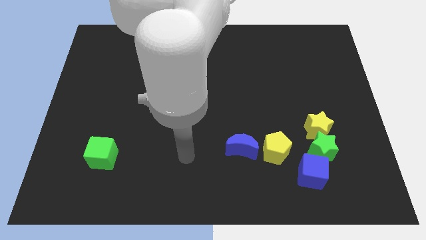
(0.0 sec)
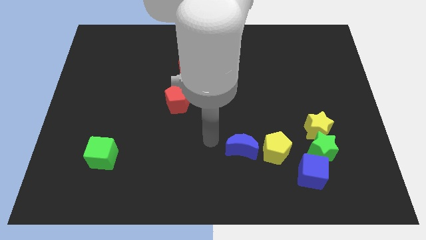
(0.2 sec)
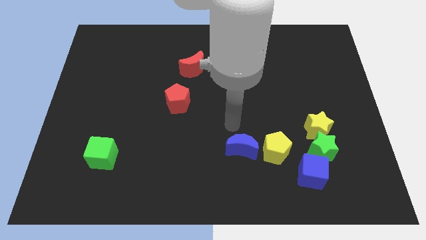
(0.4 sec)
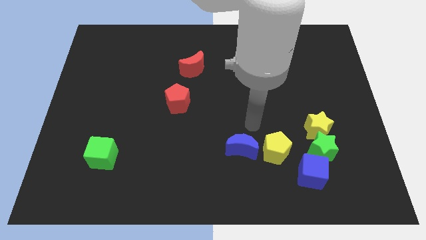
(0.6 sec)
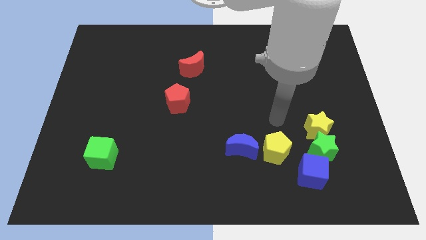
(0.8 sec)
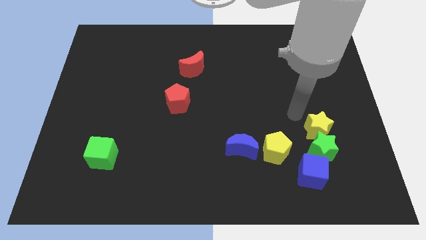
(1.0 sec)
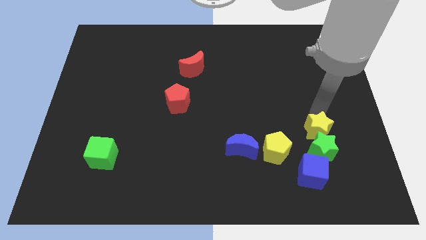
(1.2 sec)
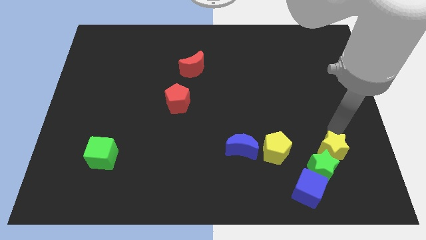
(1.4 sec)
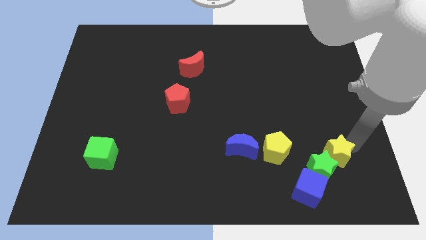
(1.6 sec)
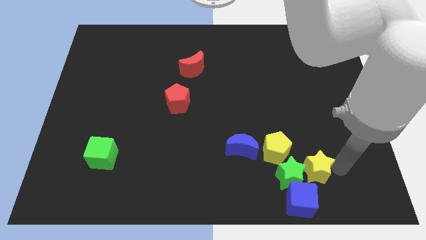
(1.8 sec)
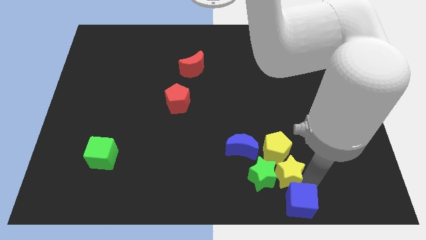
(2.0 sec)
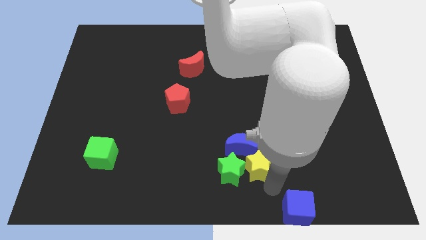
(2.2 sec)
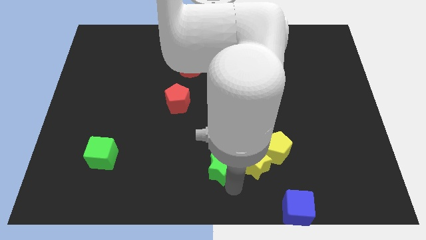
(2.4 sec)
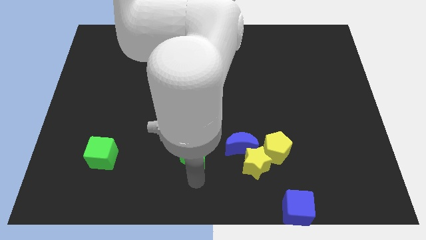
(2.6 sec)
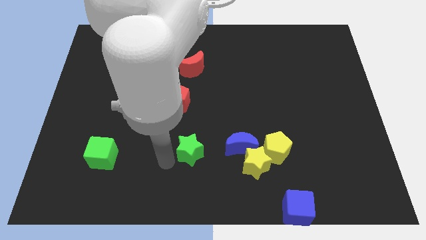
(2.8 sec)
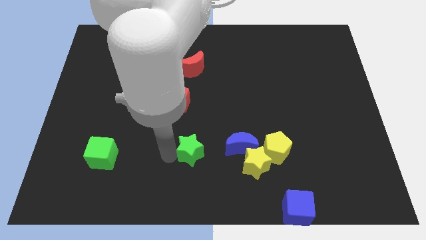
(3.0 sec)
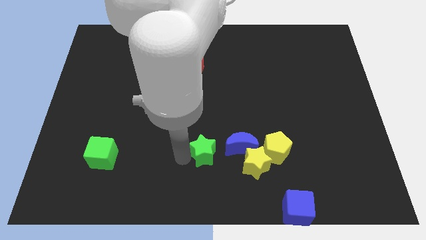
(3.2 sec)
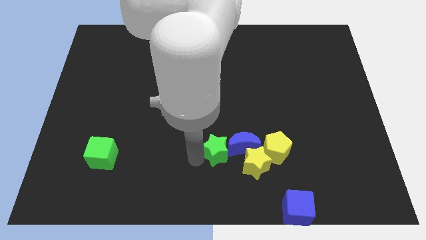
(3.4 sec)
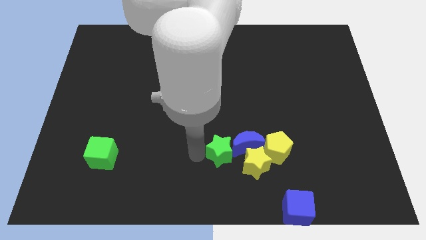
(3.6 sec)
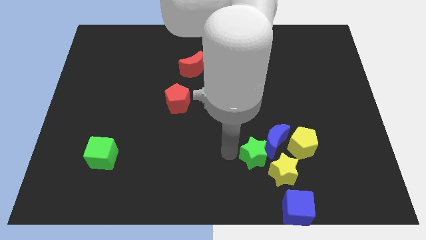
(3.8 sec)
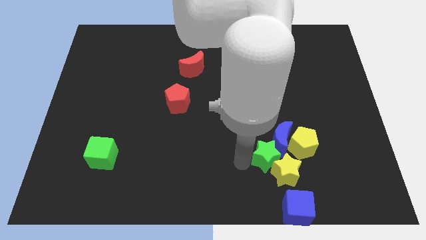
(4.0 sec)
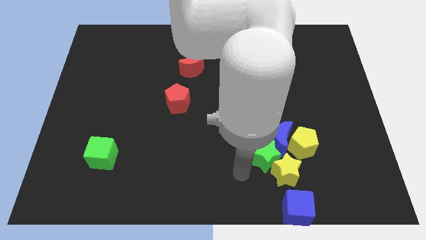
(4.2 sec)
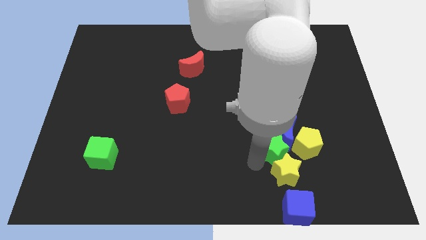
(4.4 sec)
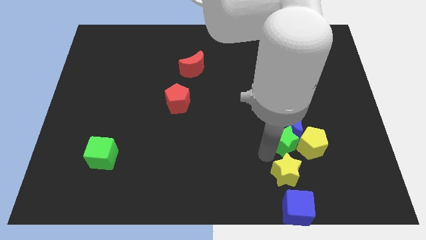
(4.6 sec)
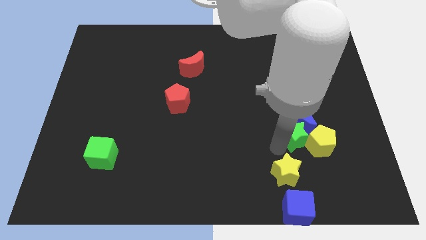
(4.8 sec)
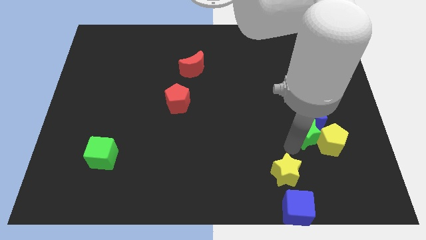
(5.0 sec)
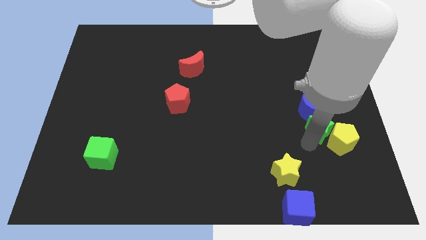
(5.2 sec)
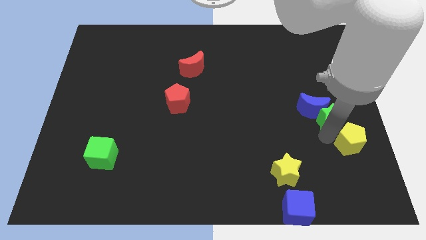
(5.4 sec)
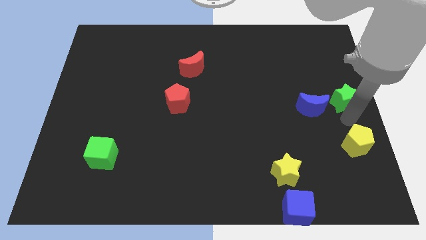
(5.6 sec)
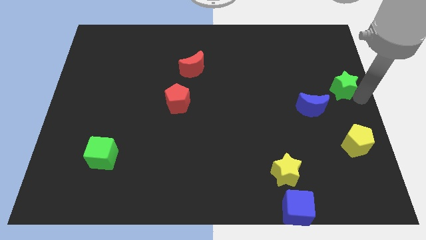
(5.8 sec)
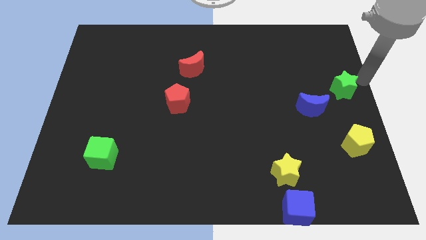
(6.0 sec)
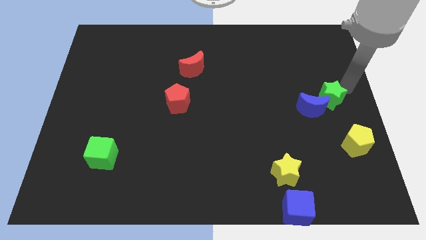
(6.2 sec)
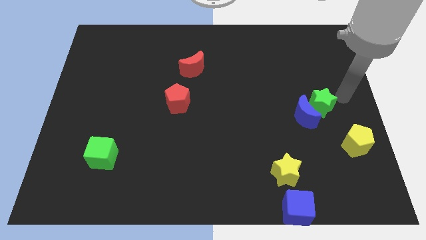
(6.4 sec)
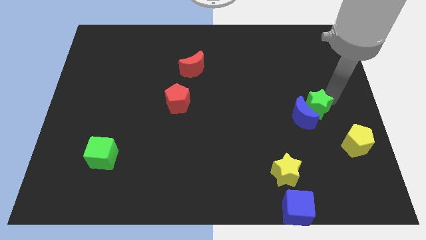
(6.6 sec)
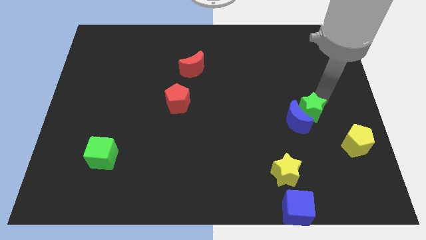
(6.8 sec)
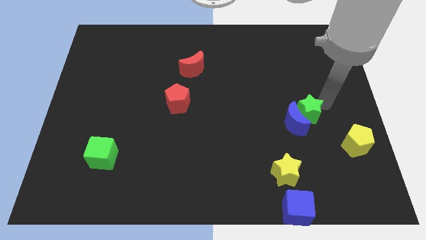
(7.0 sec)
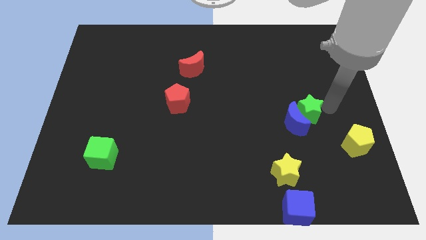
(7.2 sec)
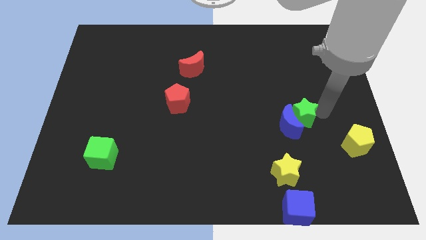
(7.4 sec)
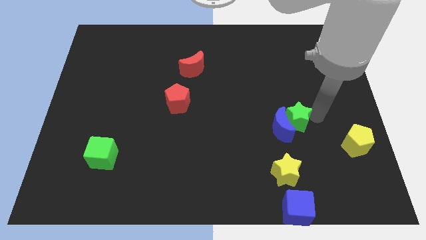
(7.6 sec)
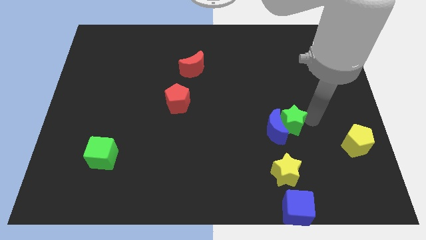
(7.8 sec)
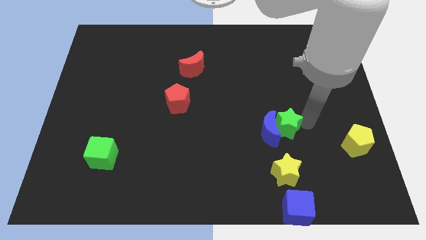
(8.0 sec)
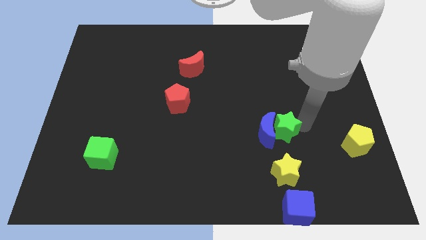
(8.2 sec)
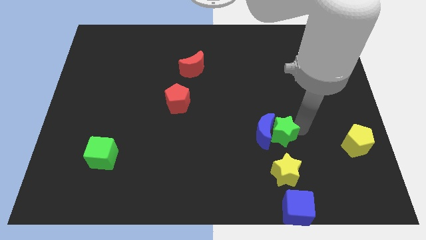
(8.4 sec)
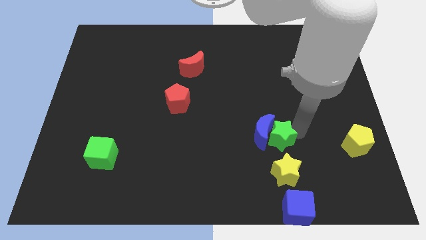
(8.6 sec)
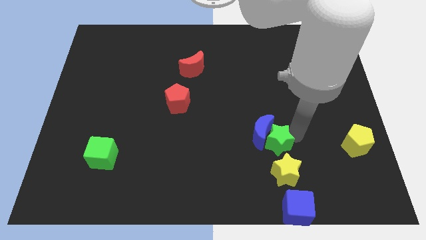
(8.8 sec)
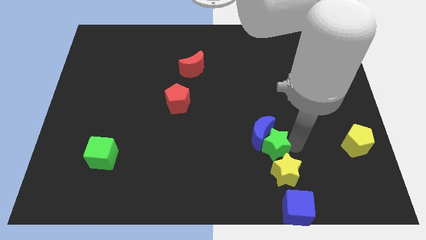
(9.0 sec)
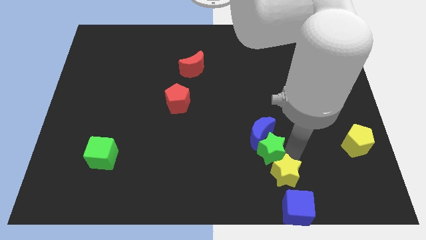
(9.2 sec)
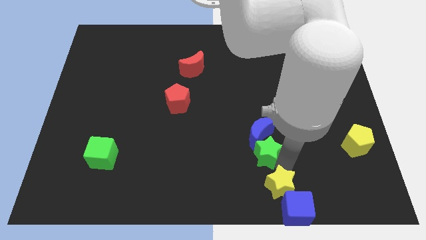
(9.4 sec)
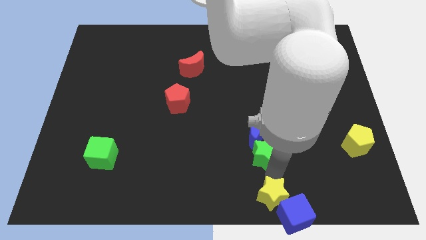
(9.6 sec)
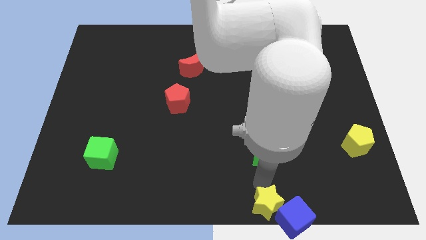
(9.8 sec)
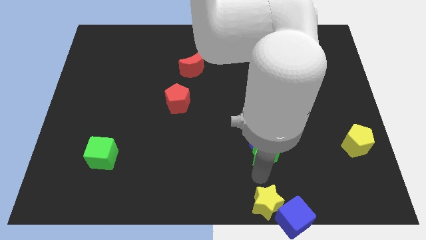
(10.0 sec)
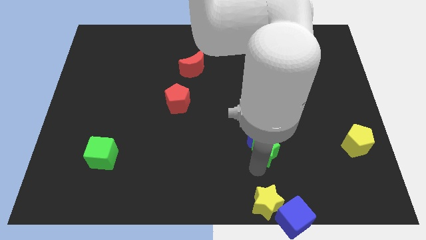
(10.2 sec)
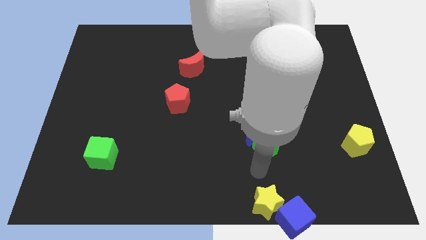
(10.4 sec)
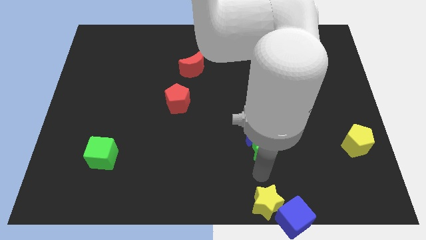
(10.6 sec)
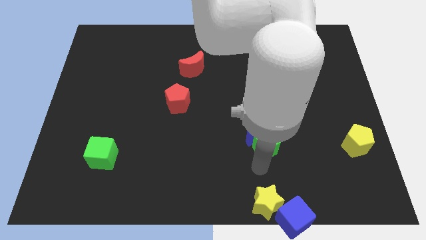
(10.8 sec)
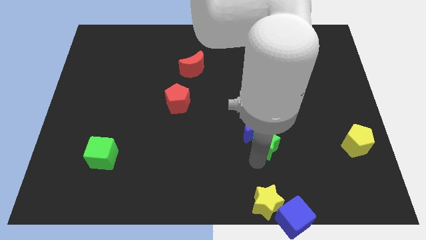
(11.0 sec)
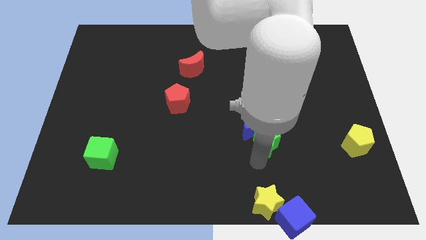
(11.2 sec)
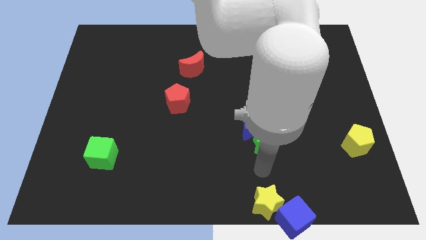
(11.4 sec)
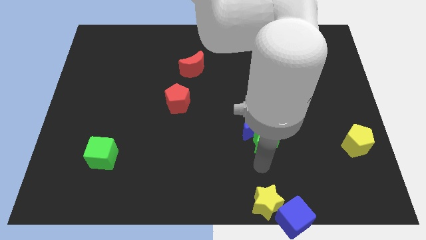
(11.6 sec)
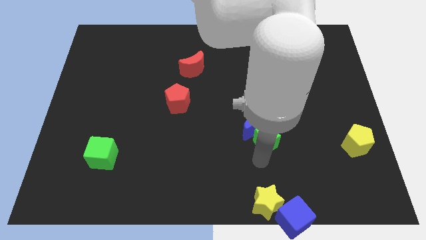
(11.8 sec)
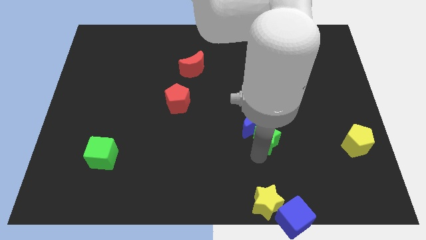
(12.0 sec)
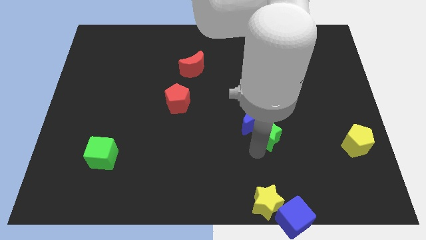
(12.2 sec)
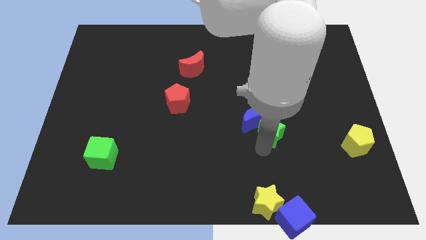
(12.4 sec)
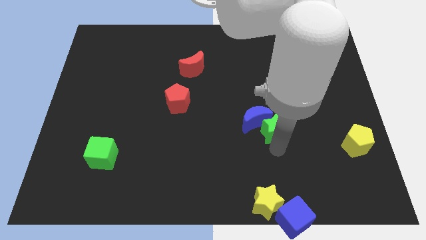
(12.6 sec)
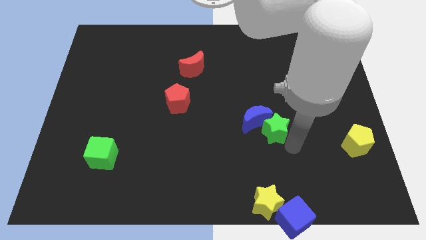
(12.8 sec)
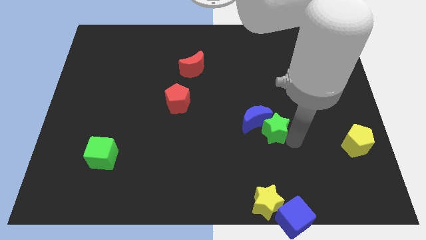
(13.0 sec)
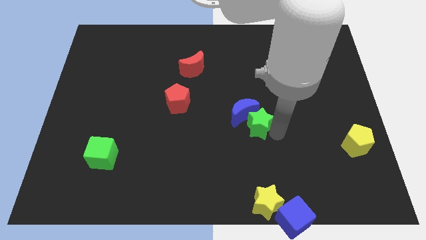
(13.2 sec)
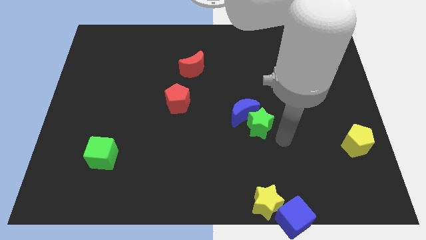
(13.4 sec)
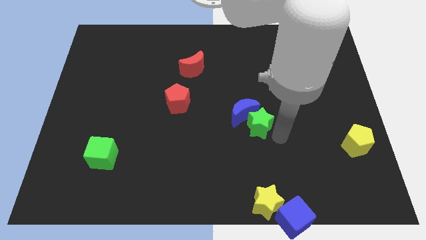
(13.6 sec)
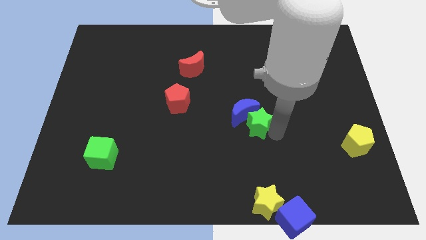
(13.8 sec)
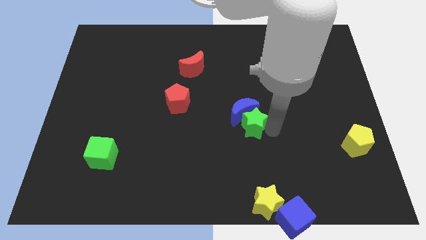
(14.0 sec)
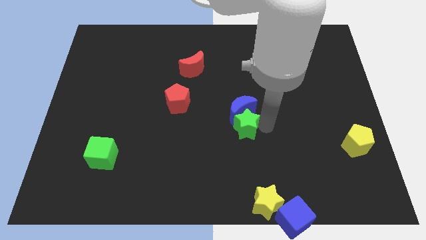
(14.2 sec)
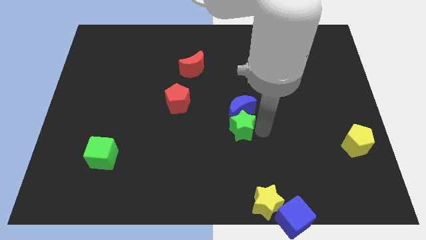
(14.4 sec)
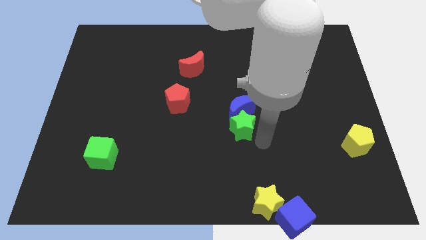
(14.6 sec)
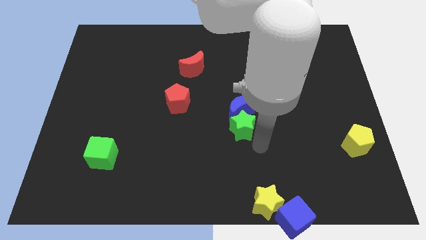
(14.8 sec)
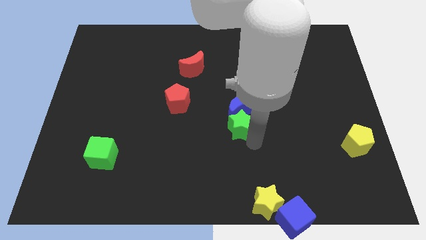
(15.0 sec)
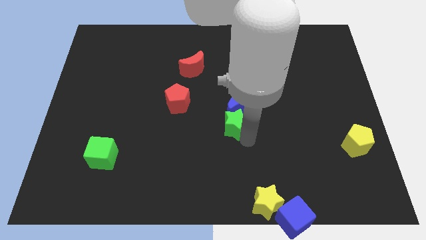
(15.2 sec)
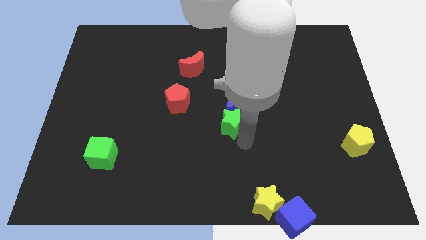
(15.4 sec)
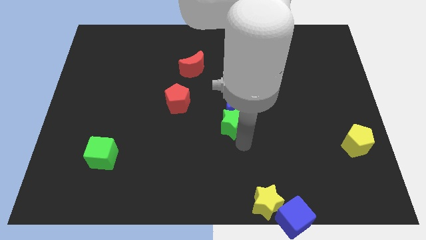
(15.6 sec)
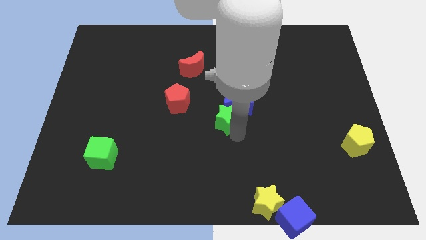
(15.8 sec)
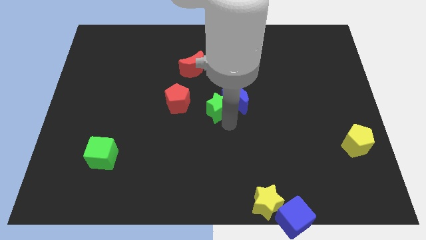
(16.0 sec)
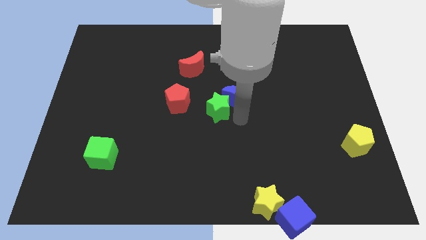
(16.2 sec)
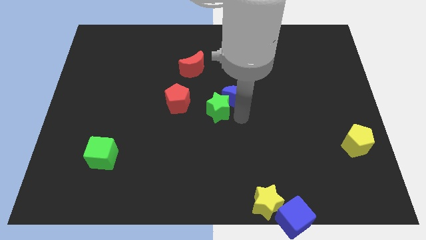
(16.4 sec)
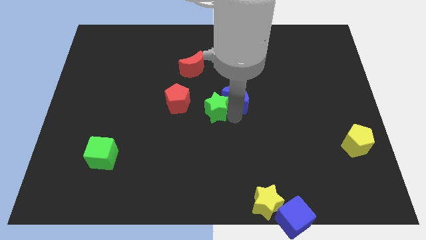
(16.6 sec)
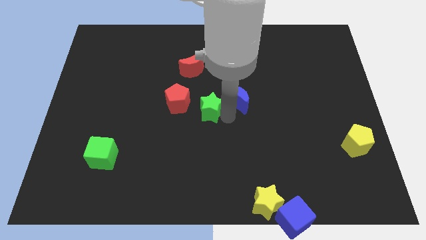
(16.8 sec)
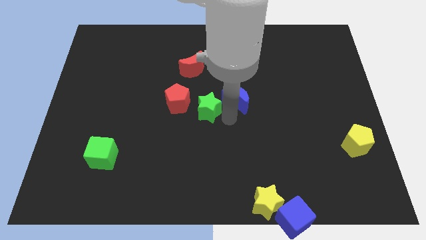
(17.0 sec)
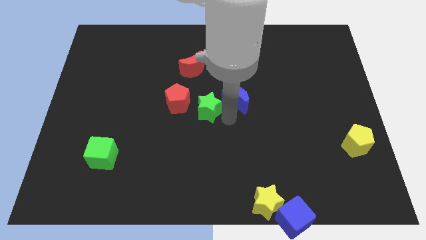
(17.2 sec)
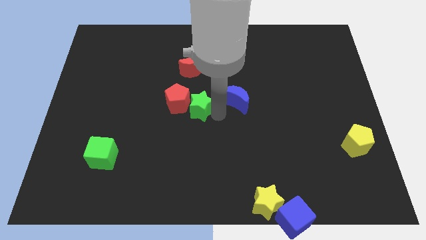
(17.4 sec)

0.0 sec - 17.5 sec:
put the green star towards the red pentagon
